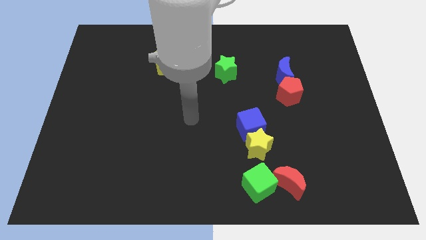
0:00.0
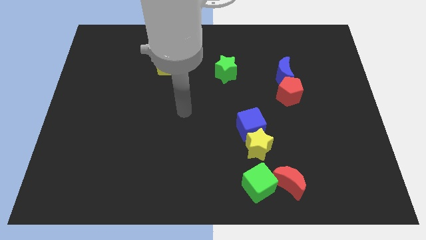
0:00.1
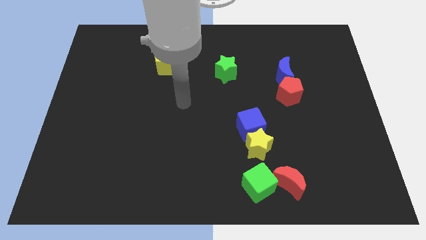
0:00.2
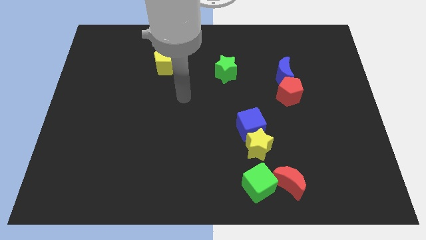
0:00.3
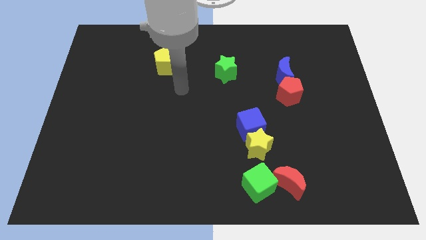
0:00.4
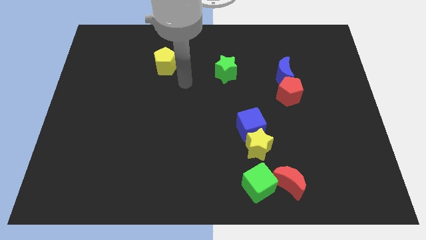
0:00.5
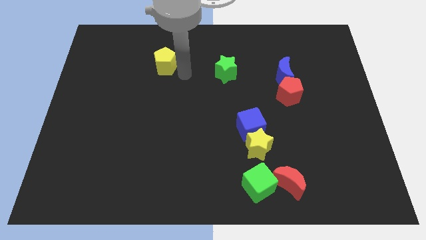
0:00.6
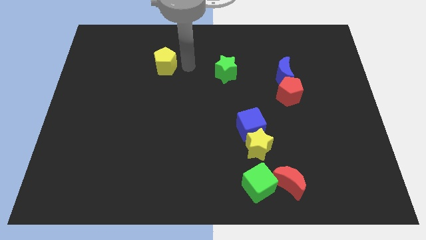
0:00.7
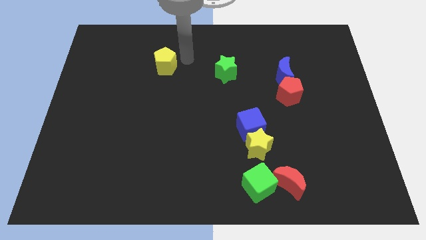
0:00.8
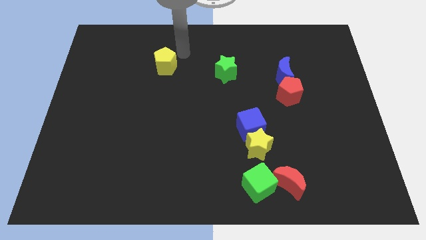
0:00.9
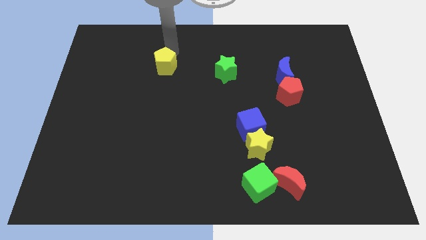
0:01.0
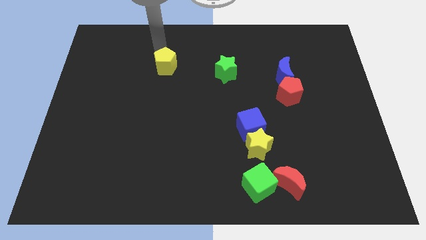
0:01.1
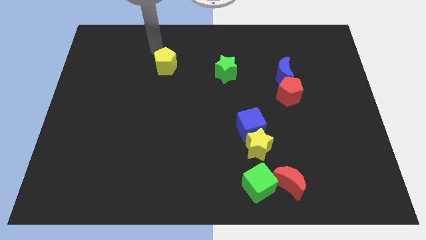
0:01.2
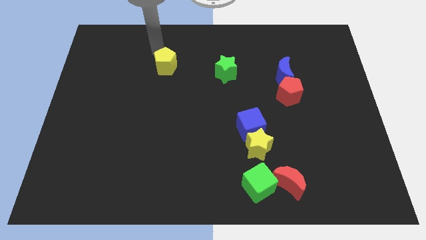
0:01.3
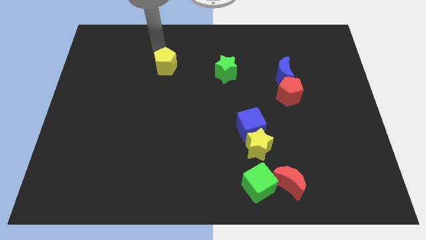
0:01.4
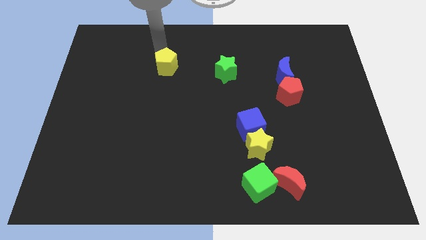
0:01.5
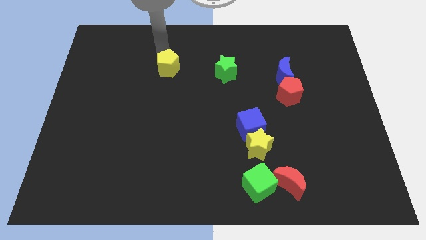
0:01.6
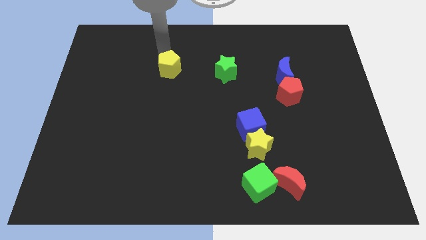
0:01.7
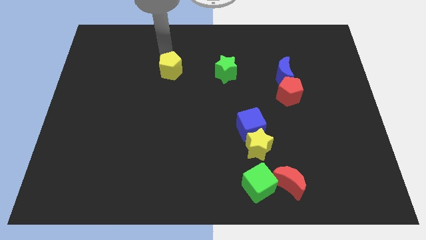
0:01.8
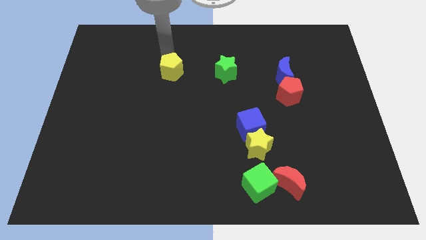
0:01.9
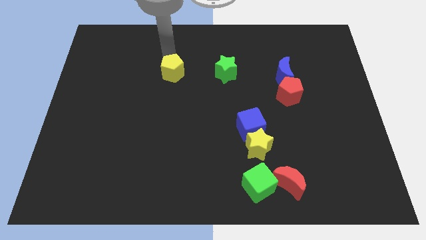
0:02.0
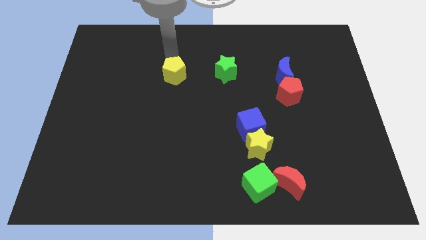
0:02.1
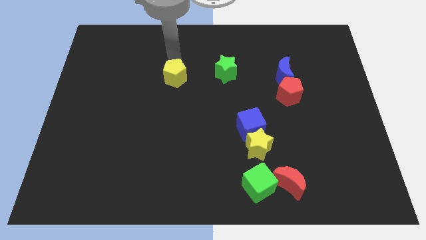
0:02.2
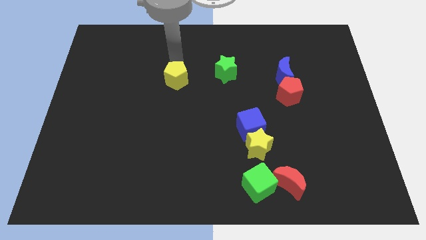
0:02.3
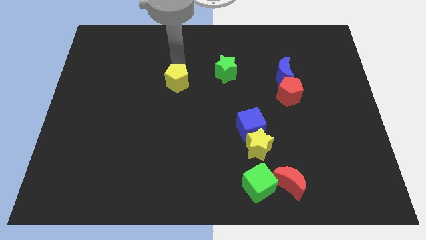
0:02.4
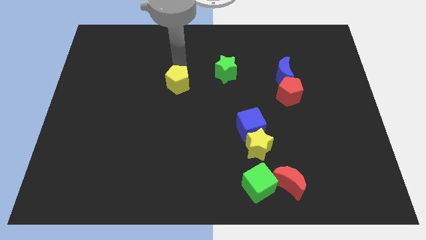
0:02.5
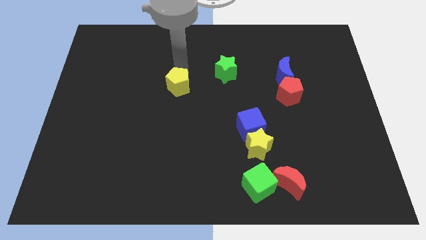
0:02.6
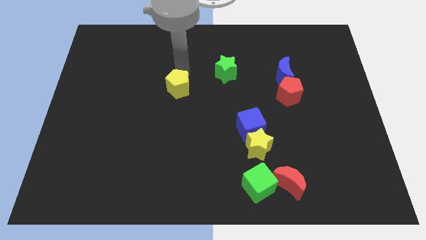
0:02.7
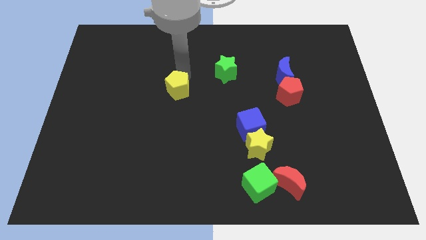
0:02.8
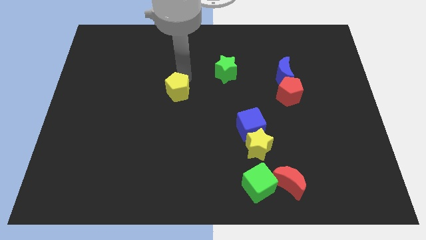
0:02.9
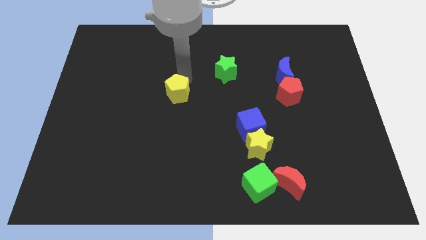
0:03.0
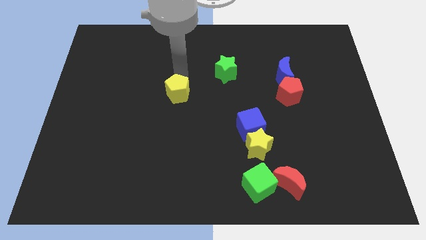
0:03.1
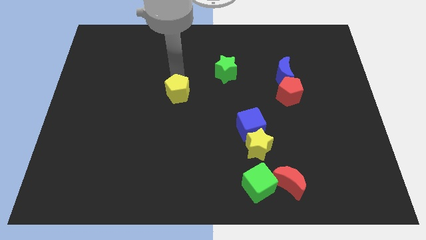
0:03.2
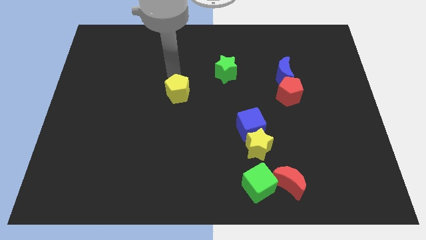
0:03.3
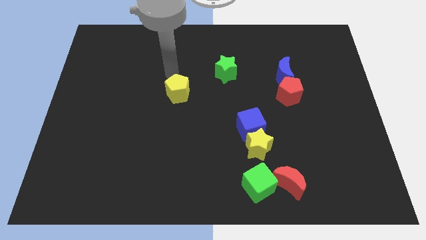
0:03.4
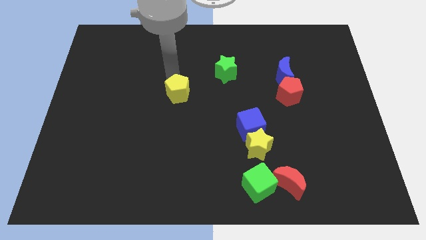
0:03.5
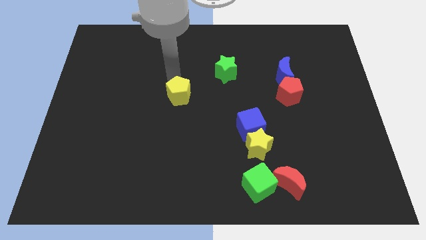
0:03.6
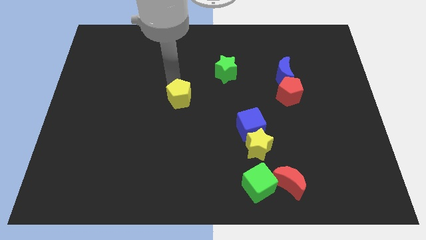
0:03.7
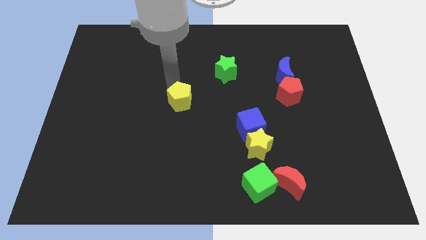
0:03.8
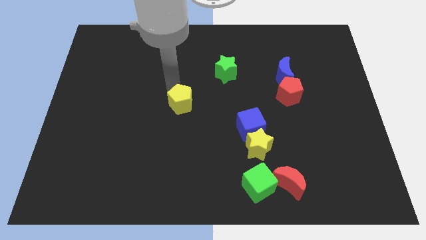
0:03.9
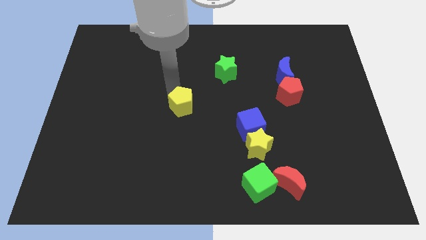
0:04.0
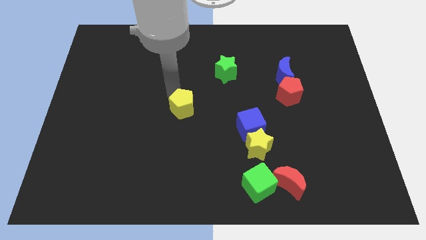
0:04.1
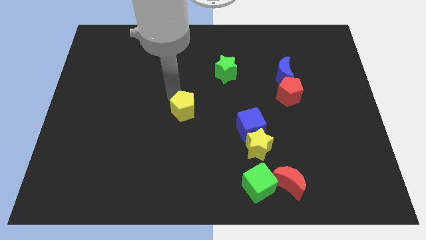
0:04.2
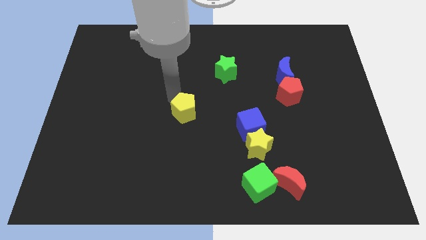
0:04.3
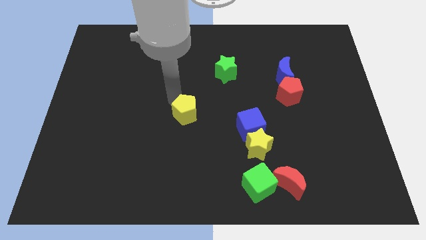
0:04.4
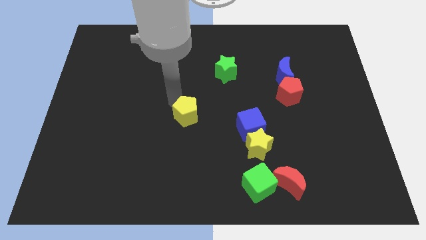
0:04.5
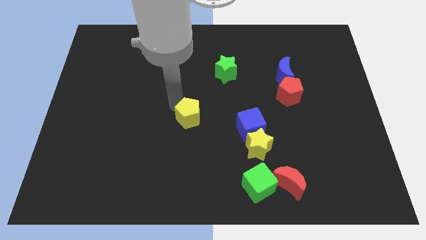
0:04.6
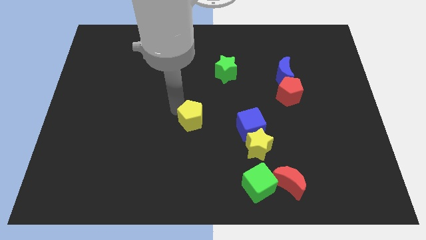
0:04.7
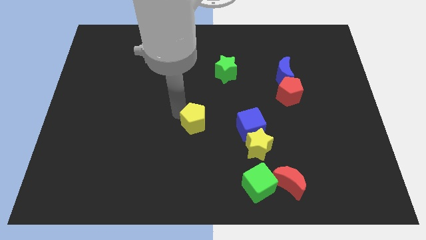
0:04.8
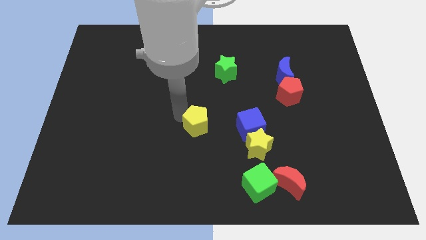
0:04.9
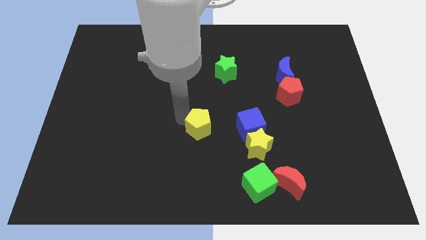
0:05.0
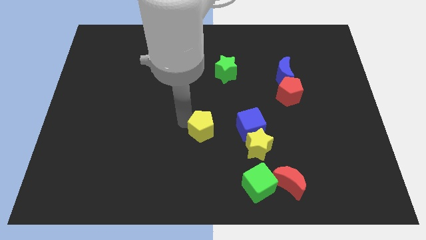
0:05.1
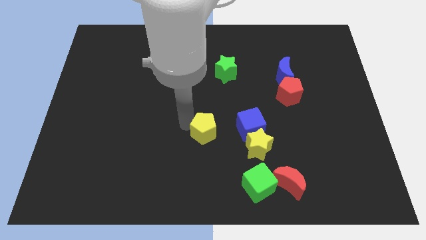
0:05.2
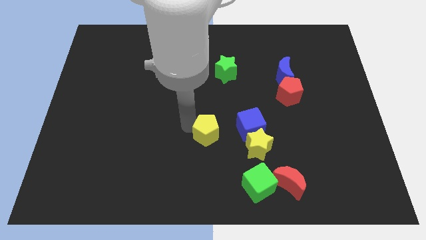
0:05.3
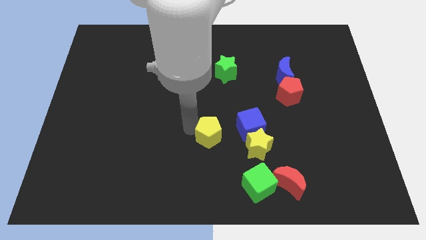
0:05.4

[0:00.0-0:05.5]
slide the yellow pentagon diagonally down and to the left of the blue cube

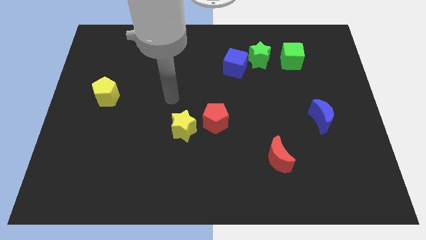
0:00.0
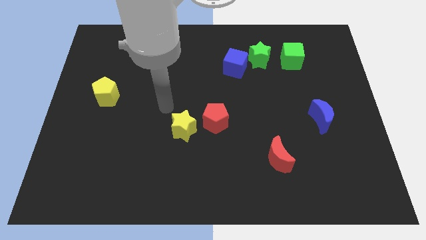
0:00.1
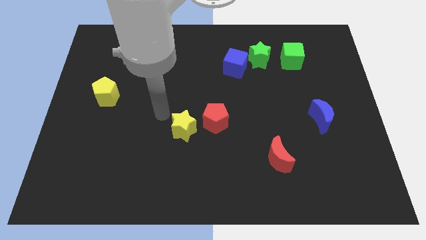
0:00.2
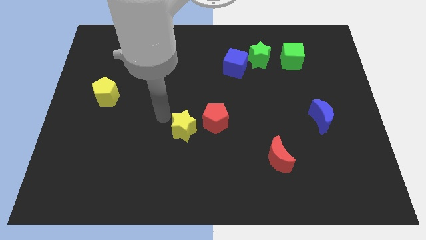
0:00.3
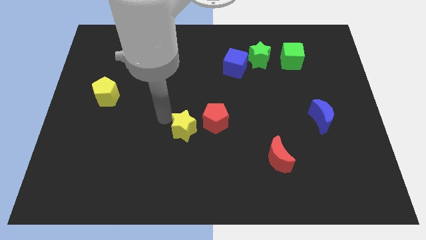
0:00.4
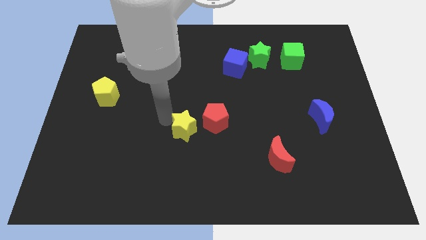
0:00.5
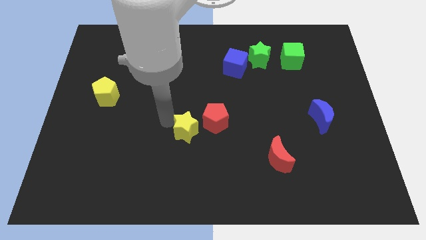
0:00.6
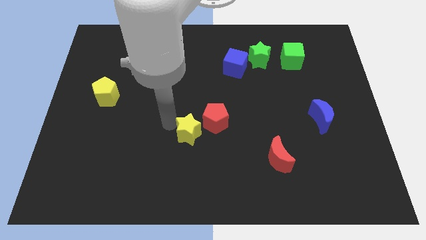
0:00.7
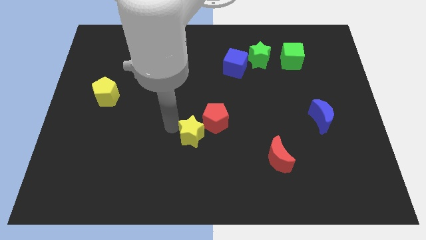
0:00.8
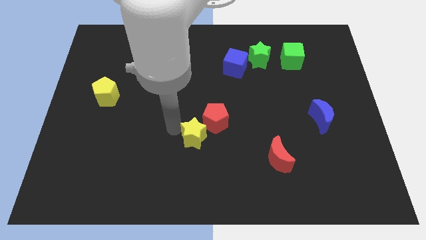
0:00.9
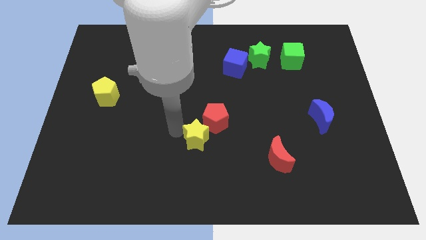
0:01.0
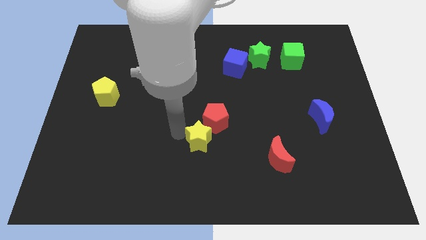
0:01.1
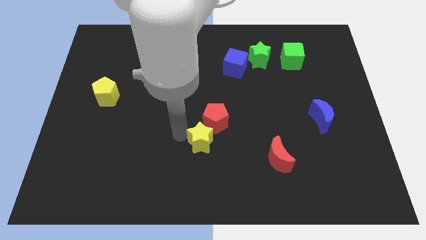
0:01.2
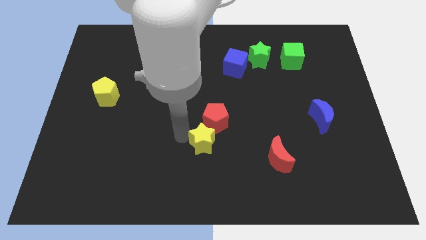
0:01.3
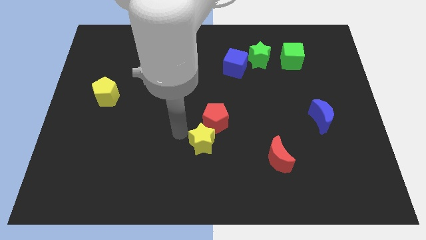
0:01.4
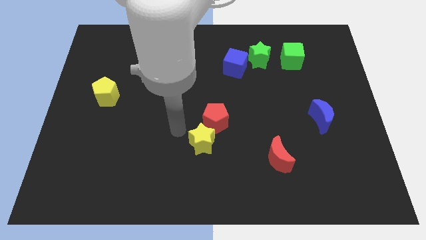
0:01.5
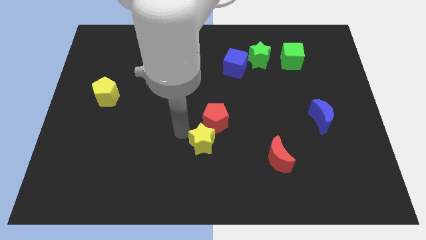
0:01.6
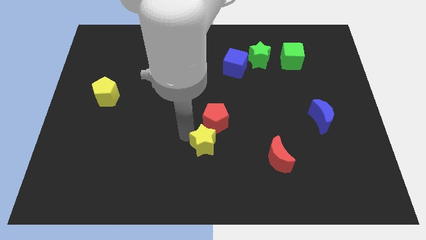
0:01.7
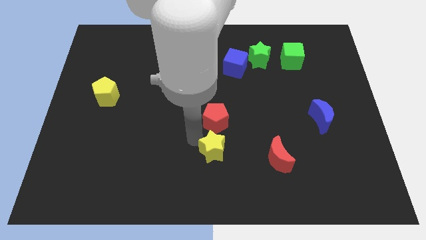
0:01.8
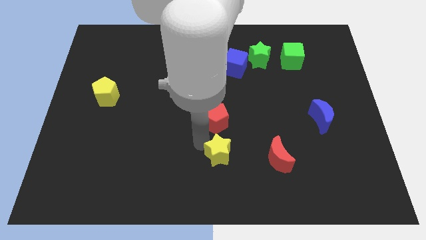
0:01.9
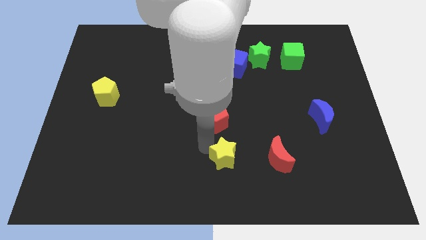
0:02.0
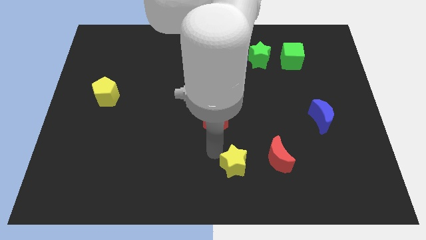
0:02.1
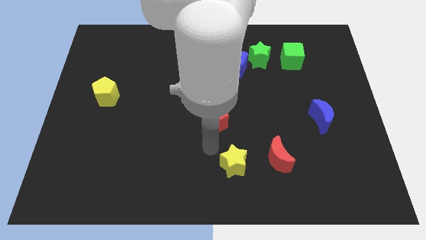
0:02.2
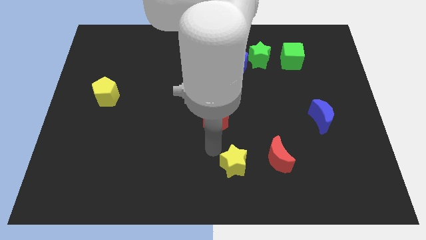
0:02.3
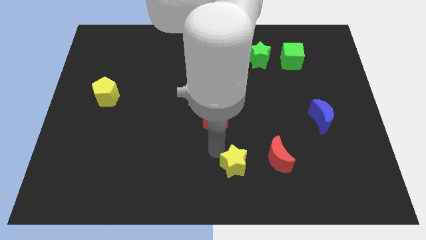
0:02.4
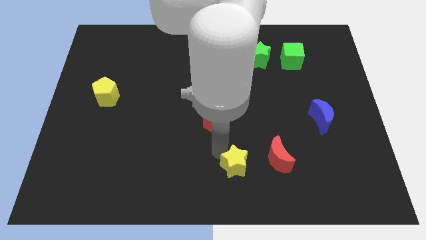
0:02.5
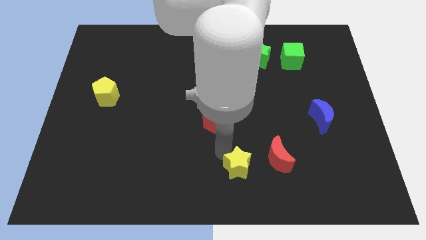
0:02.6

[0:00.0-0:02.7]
put the yellow star diagonally down and to the left of the red moon
